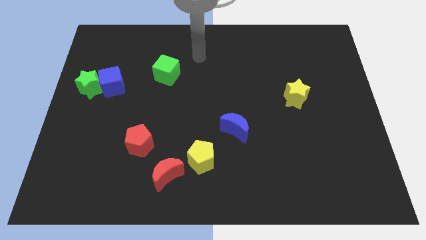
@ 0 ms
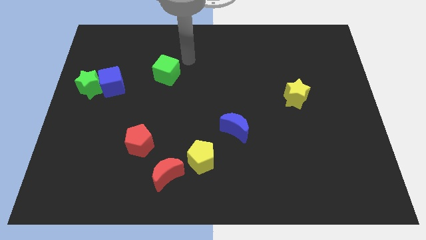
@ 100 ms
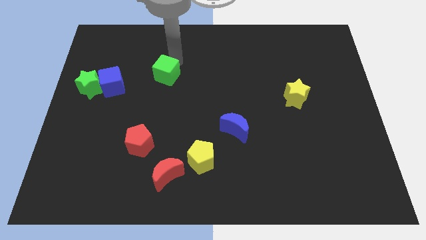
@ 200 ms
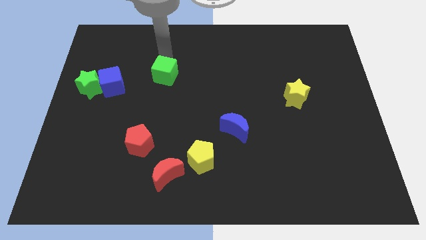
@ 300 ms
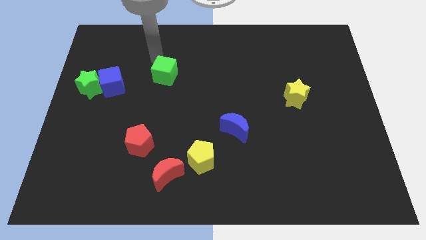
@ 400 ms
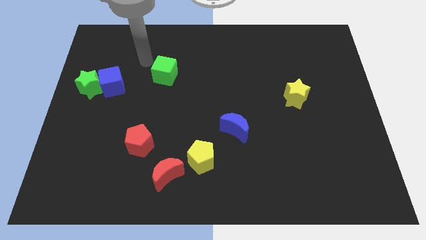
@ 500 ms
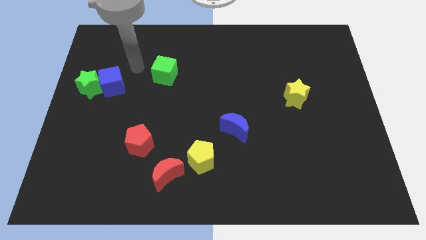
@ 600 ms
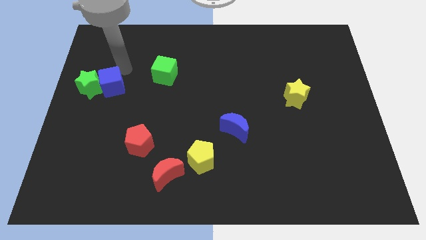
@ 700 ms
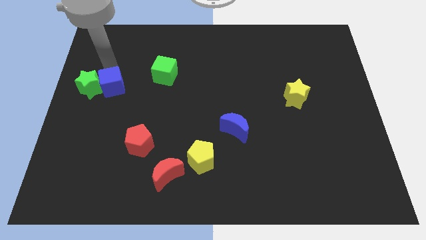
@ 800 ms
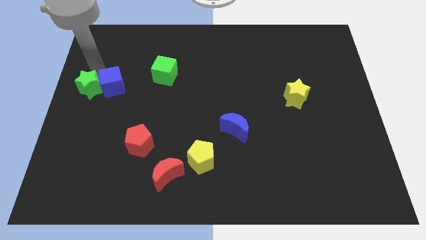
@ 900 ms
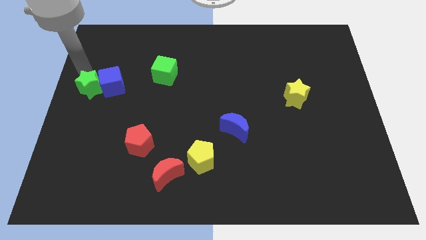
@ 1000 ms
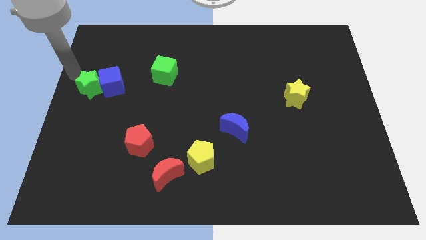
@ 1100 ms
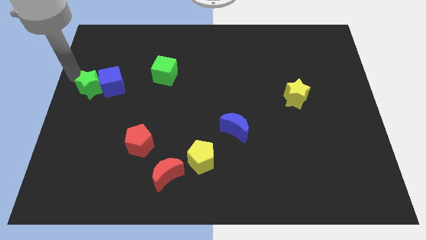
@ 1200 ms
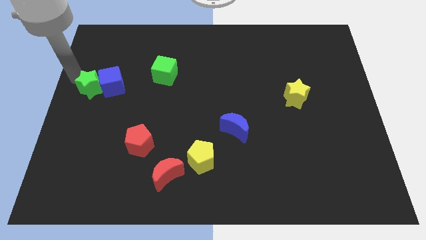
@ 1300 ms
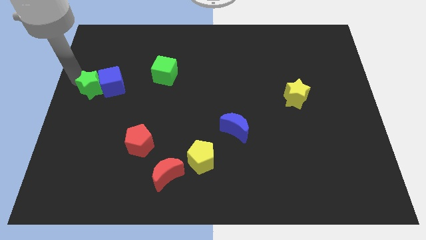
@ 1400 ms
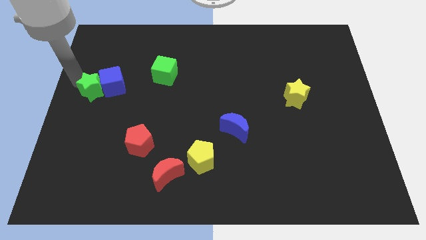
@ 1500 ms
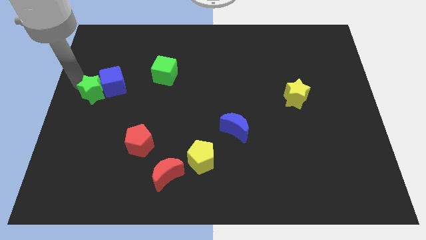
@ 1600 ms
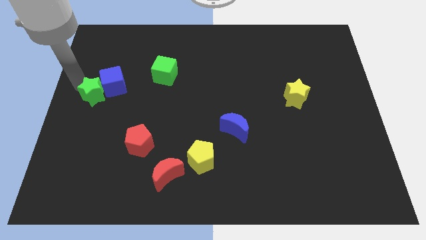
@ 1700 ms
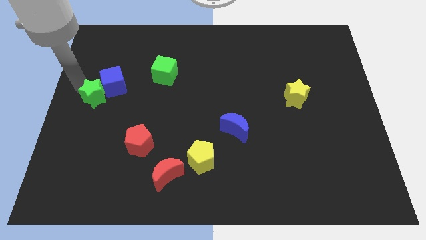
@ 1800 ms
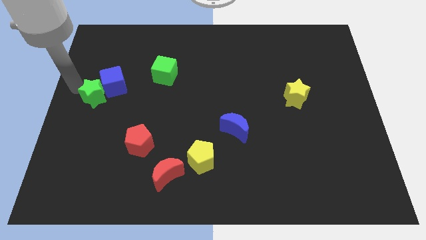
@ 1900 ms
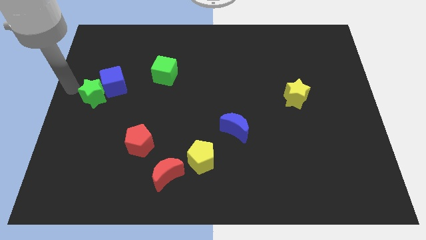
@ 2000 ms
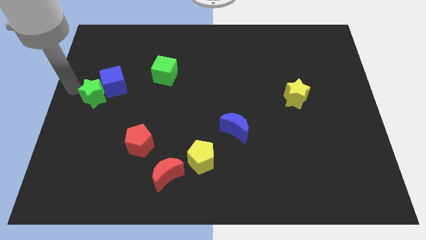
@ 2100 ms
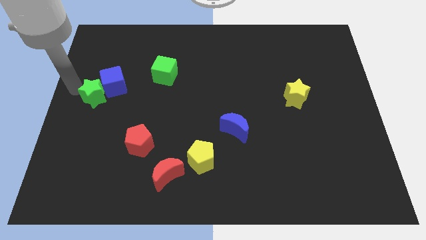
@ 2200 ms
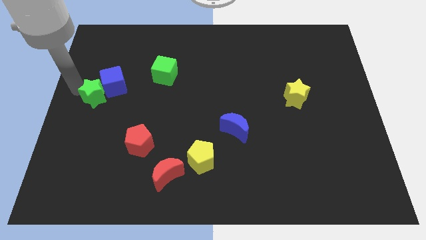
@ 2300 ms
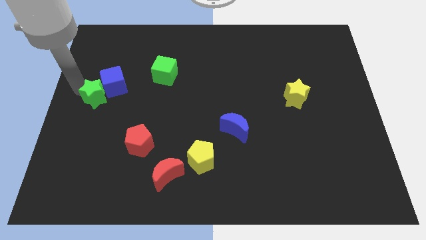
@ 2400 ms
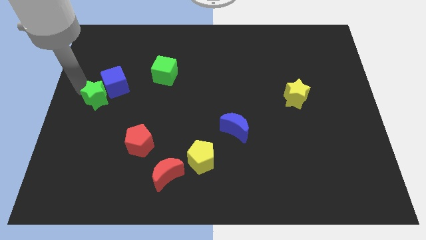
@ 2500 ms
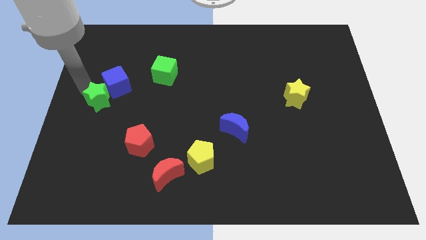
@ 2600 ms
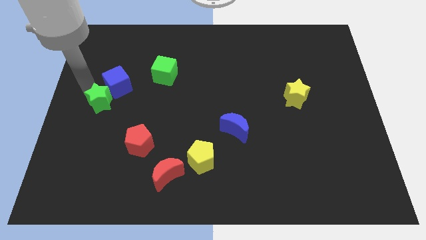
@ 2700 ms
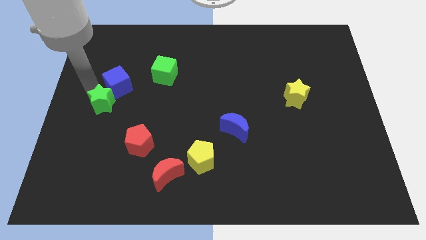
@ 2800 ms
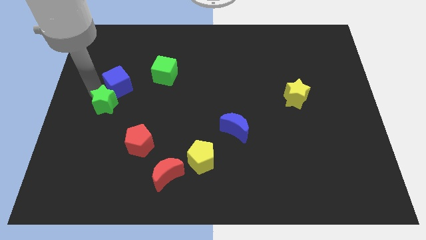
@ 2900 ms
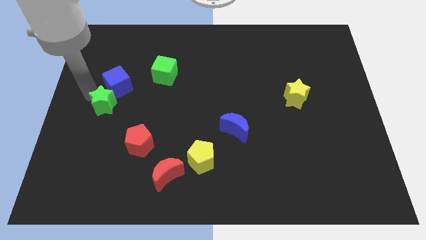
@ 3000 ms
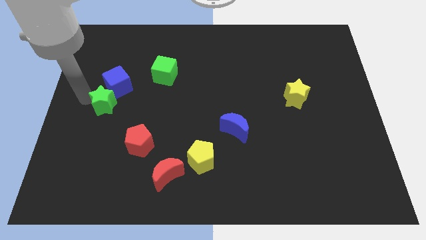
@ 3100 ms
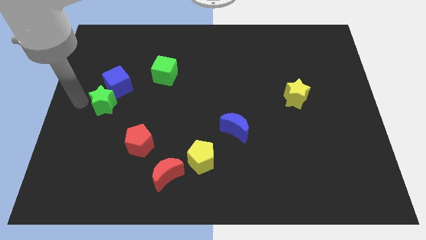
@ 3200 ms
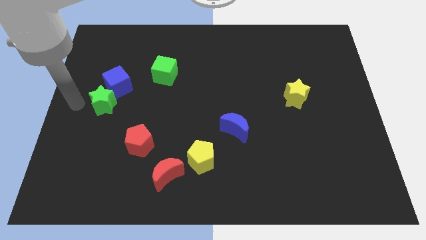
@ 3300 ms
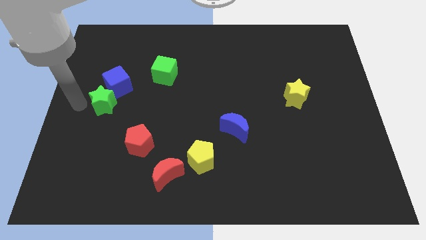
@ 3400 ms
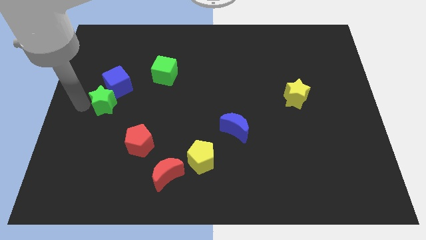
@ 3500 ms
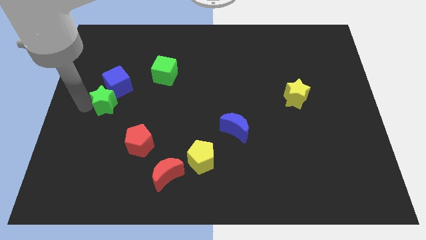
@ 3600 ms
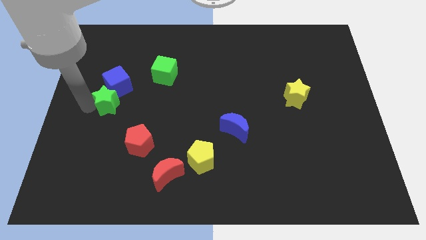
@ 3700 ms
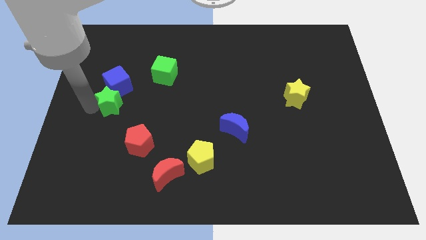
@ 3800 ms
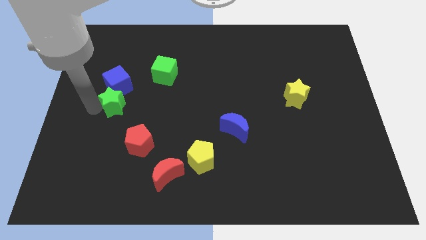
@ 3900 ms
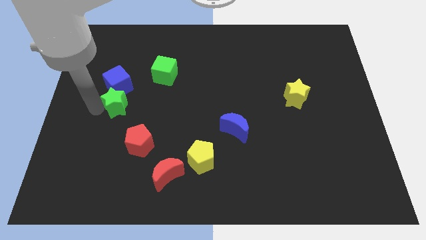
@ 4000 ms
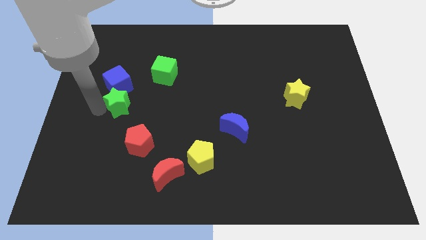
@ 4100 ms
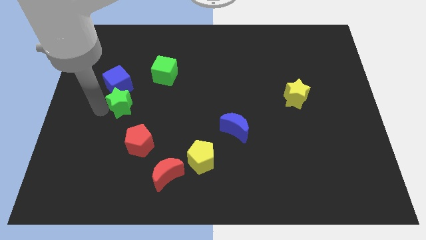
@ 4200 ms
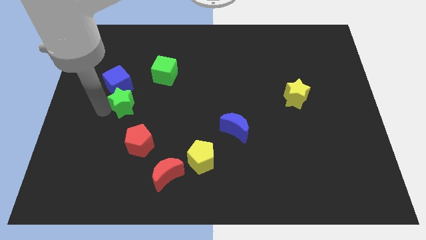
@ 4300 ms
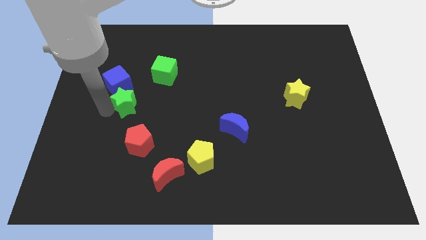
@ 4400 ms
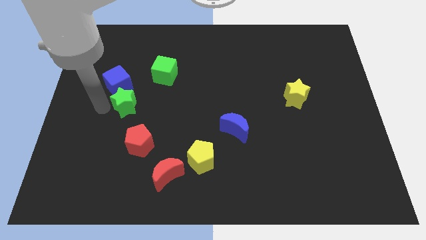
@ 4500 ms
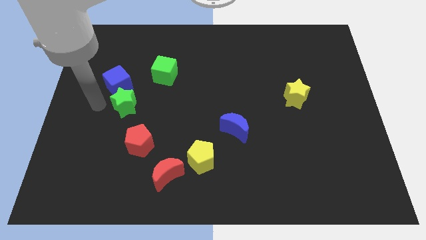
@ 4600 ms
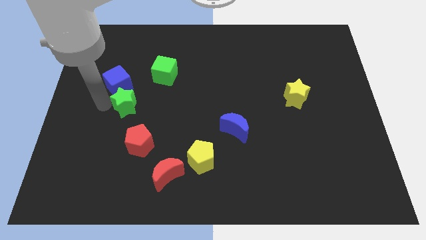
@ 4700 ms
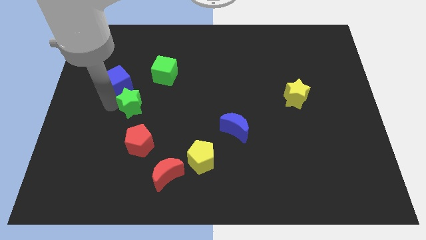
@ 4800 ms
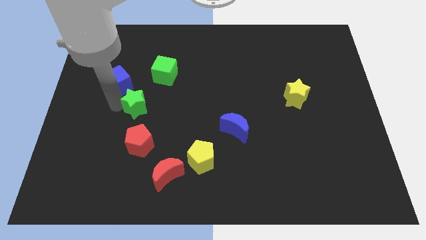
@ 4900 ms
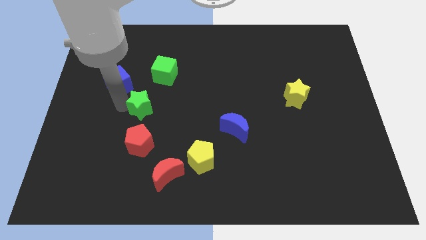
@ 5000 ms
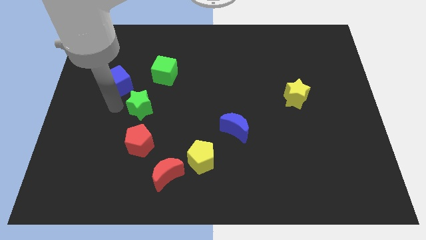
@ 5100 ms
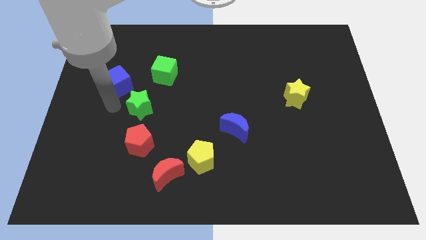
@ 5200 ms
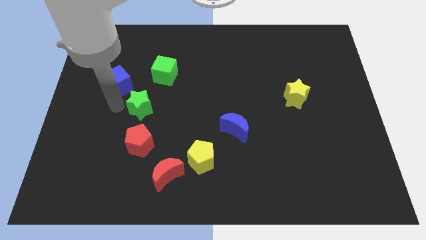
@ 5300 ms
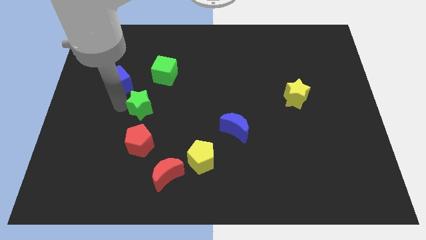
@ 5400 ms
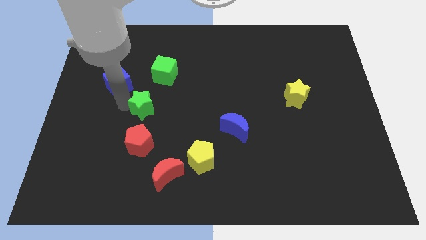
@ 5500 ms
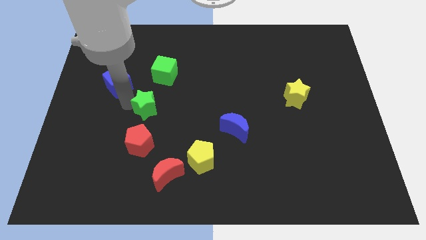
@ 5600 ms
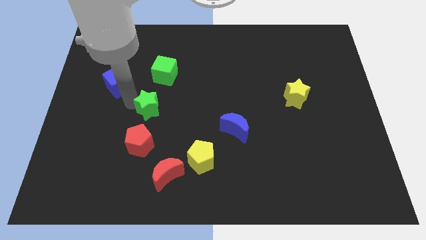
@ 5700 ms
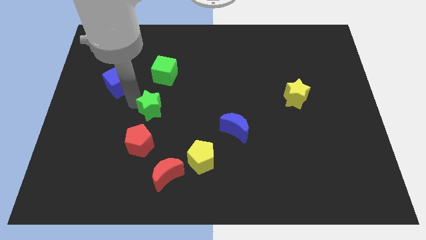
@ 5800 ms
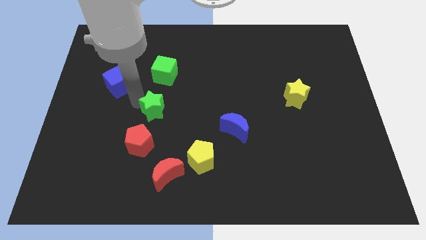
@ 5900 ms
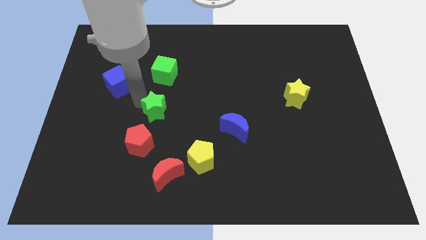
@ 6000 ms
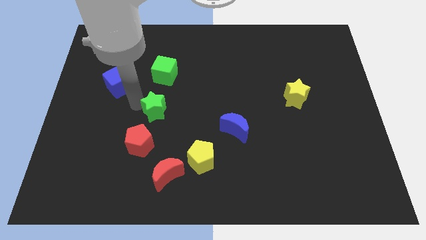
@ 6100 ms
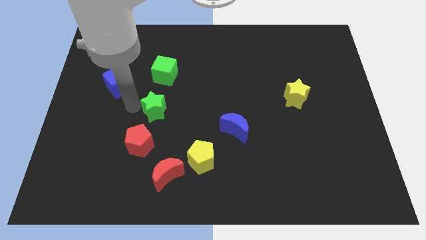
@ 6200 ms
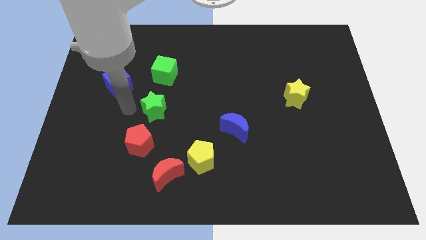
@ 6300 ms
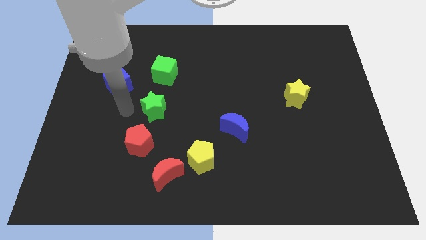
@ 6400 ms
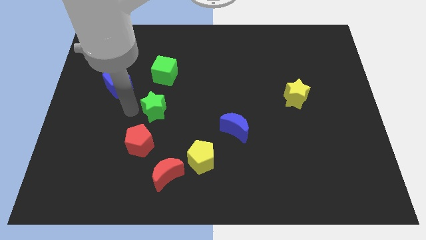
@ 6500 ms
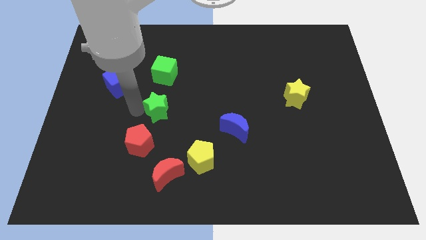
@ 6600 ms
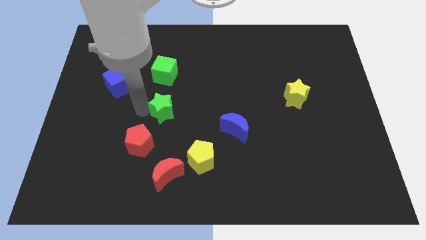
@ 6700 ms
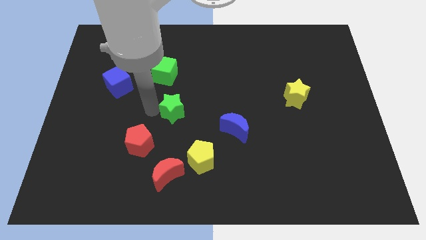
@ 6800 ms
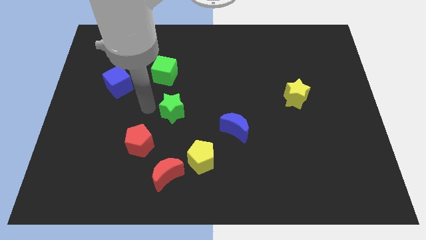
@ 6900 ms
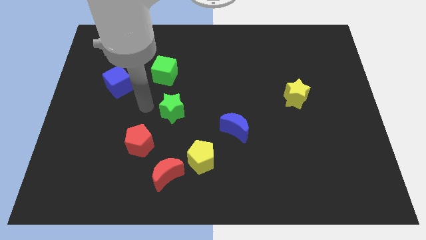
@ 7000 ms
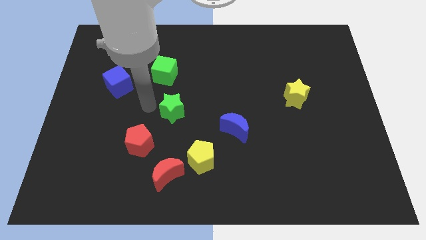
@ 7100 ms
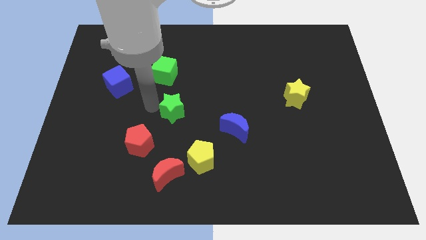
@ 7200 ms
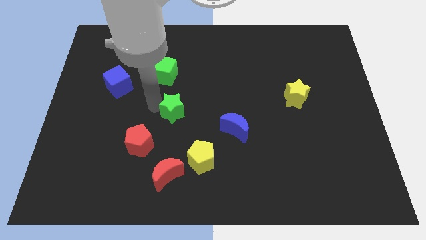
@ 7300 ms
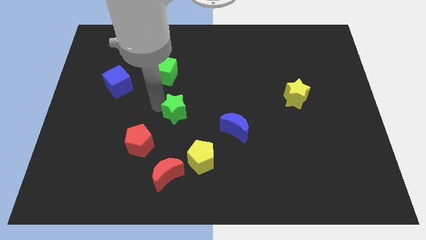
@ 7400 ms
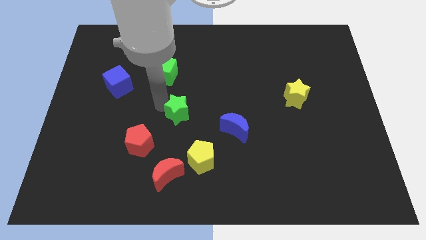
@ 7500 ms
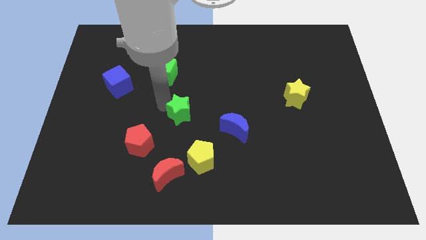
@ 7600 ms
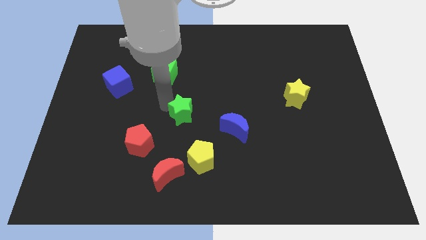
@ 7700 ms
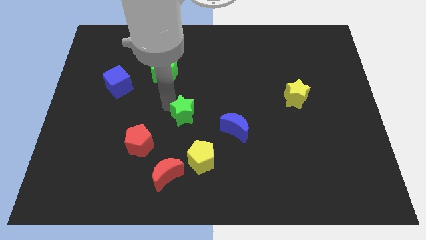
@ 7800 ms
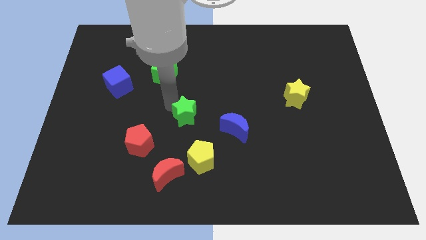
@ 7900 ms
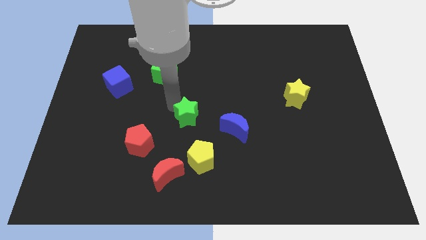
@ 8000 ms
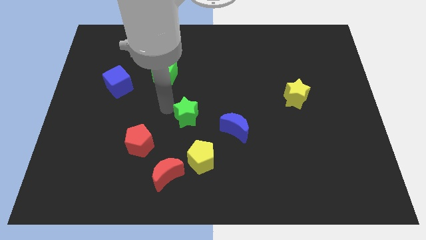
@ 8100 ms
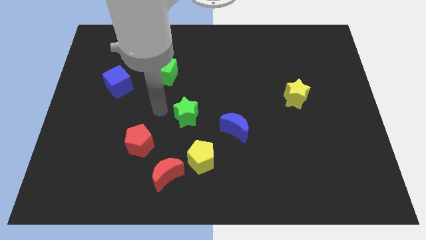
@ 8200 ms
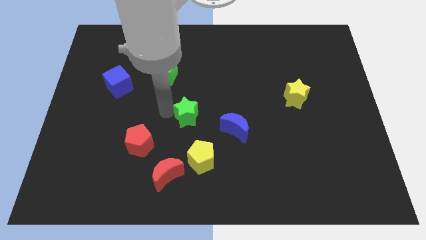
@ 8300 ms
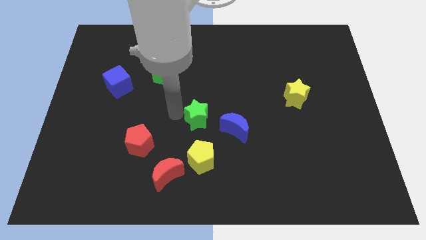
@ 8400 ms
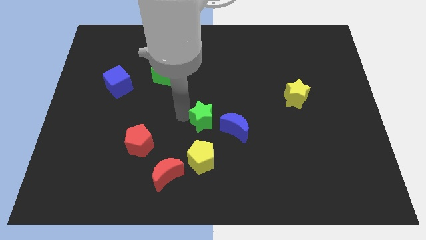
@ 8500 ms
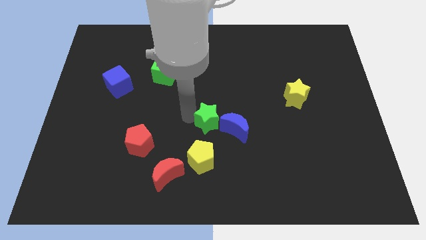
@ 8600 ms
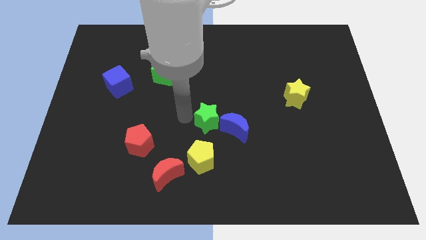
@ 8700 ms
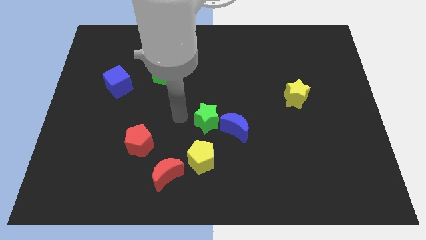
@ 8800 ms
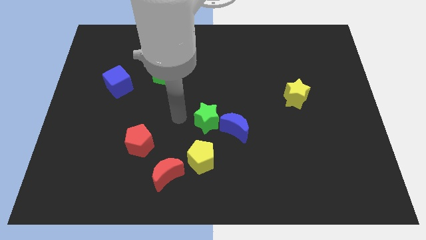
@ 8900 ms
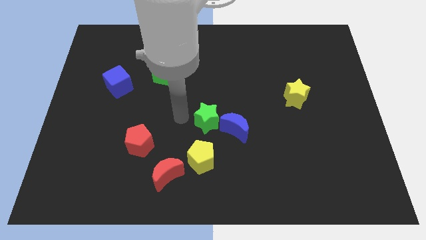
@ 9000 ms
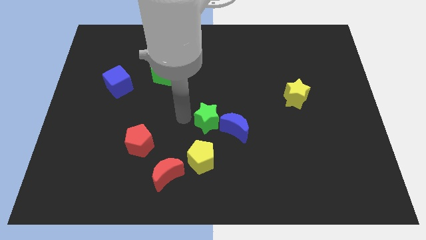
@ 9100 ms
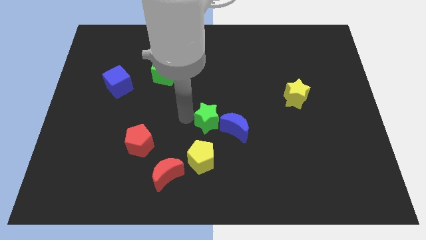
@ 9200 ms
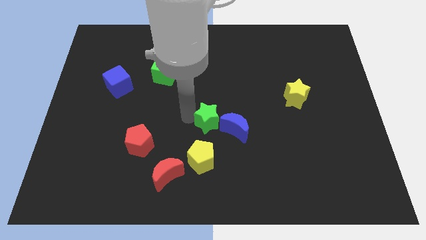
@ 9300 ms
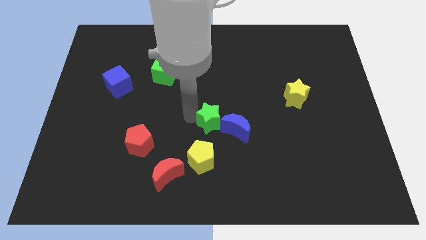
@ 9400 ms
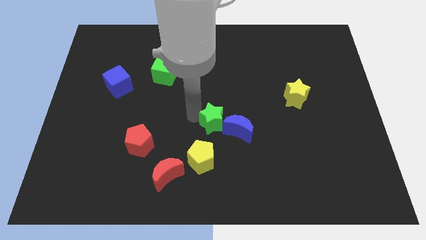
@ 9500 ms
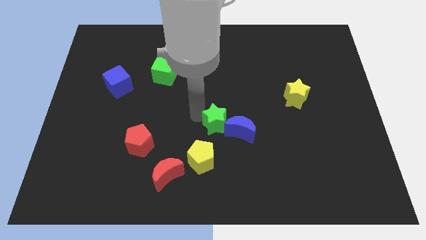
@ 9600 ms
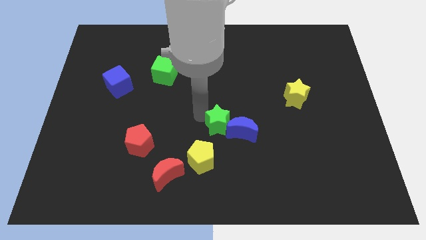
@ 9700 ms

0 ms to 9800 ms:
push the green star towards the blue moon
